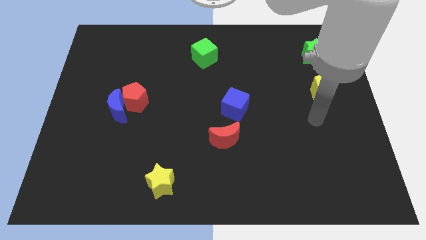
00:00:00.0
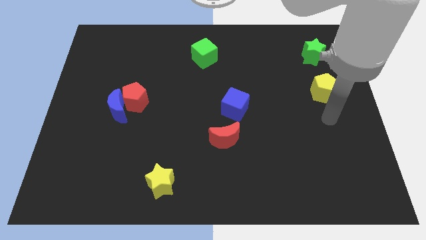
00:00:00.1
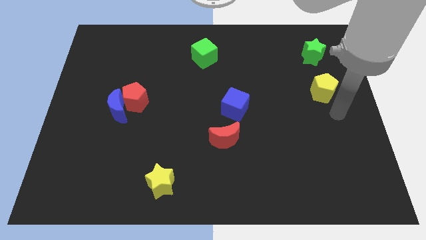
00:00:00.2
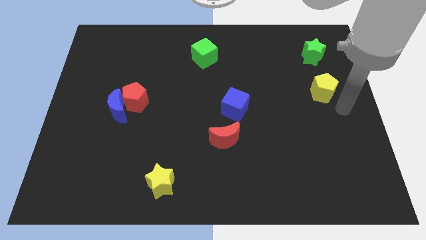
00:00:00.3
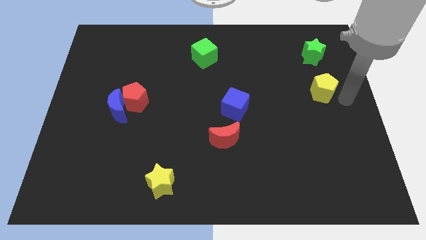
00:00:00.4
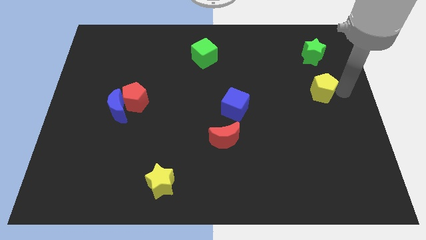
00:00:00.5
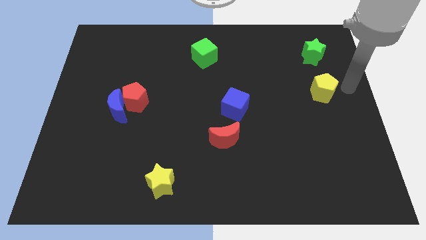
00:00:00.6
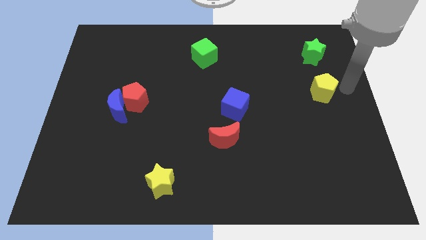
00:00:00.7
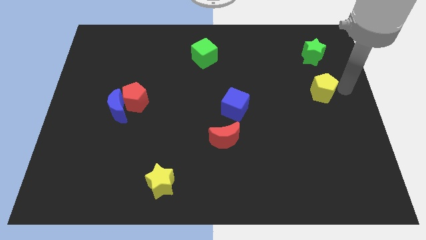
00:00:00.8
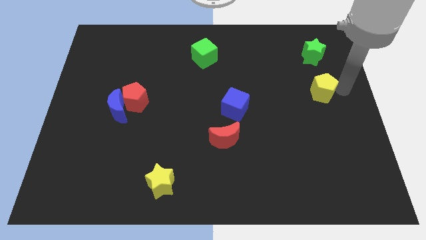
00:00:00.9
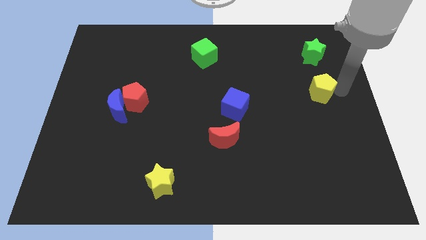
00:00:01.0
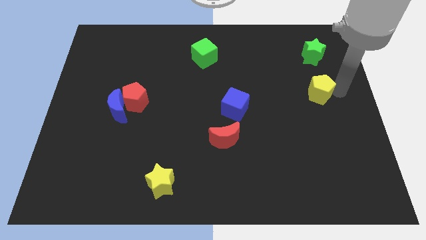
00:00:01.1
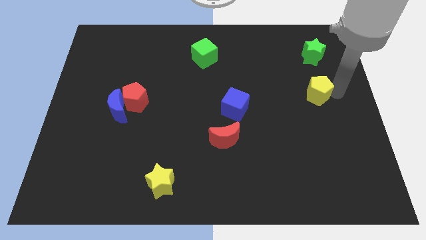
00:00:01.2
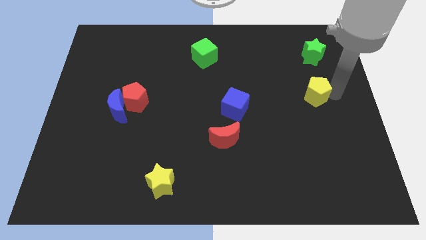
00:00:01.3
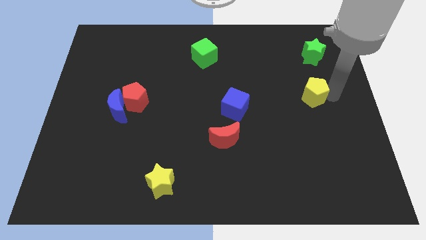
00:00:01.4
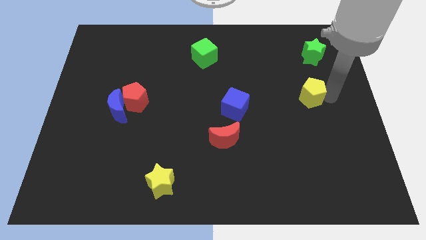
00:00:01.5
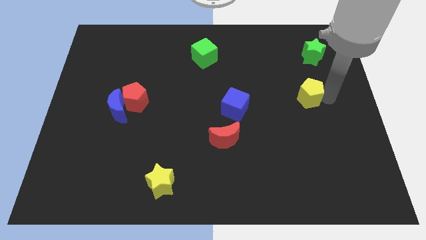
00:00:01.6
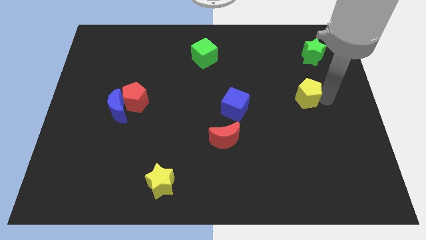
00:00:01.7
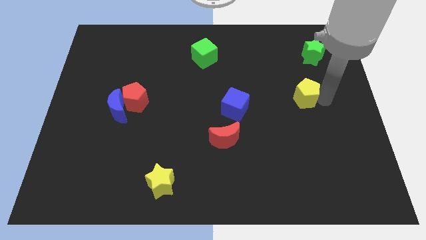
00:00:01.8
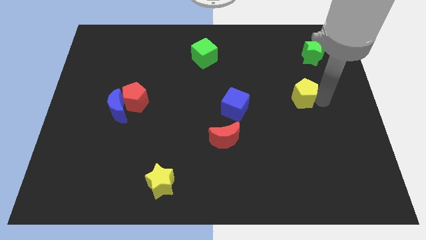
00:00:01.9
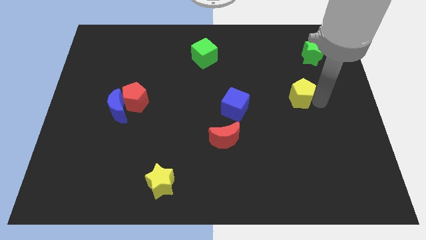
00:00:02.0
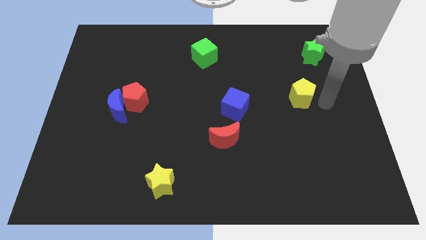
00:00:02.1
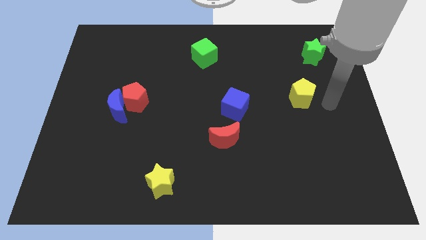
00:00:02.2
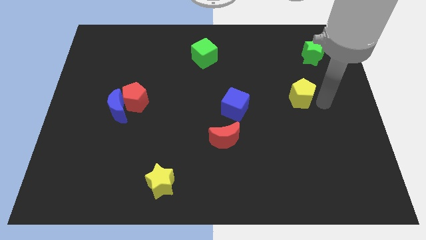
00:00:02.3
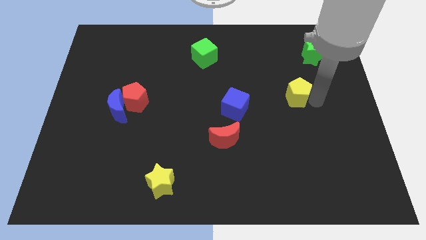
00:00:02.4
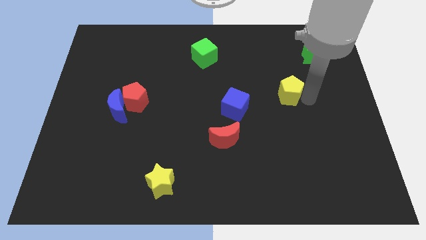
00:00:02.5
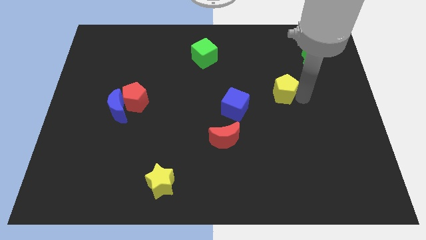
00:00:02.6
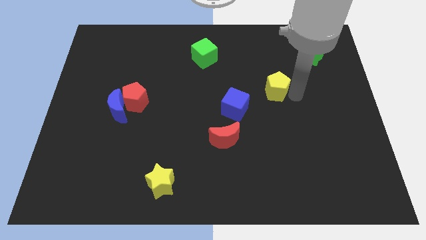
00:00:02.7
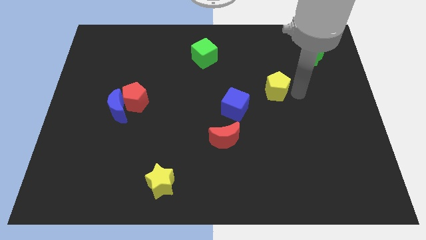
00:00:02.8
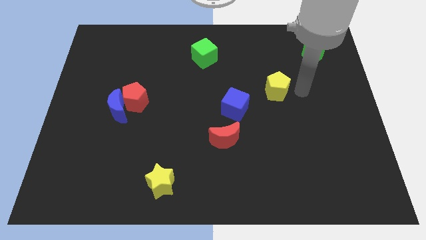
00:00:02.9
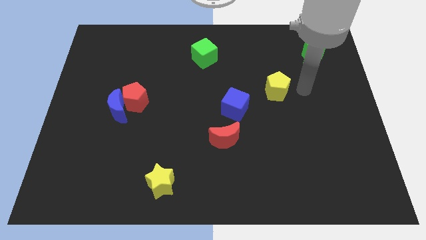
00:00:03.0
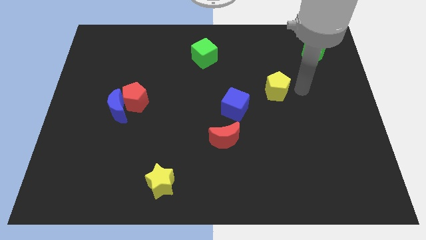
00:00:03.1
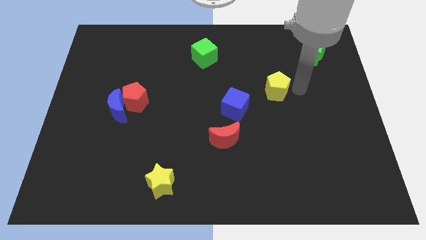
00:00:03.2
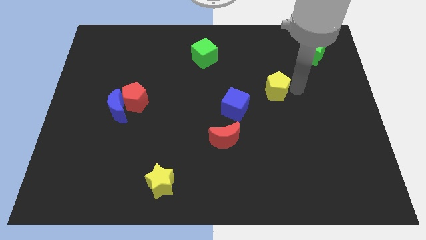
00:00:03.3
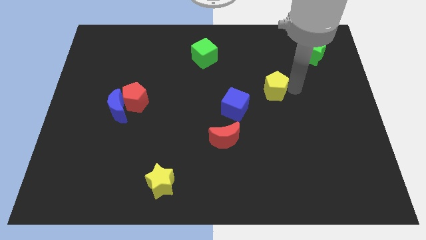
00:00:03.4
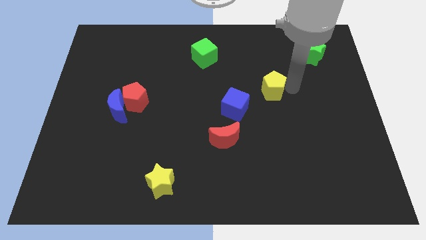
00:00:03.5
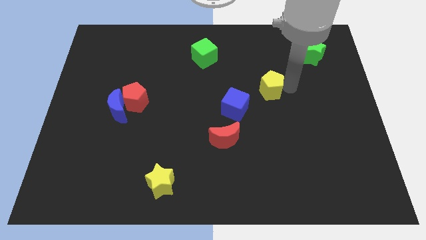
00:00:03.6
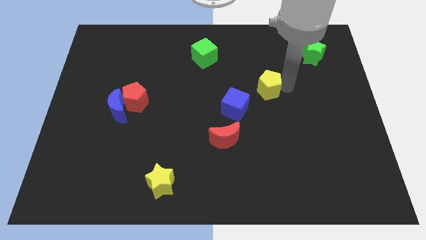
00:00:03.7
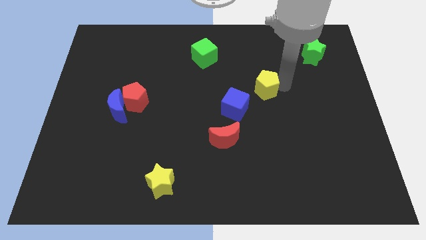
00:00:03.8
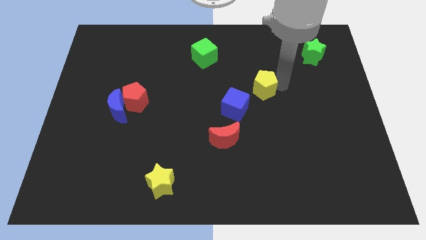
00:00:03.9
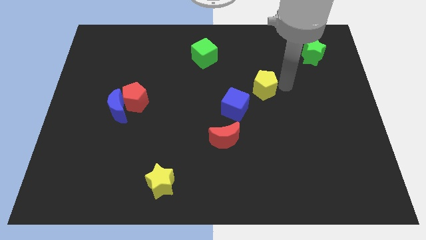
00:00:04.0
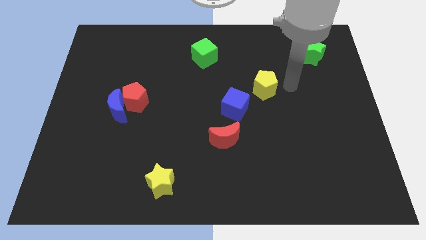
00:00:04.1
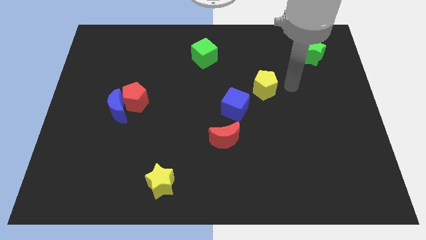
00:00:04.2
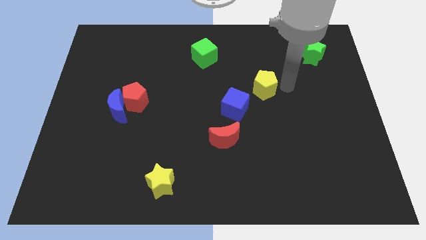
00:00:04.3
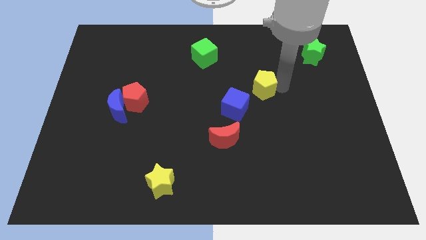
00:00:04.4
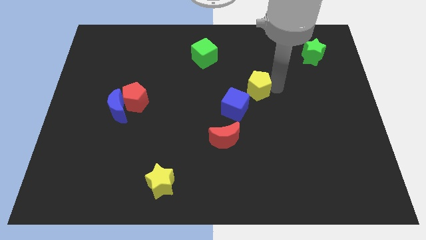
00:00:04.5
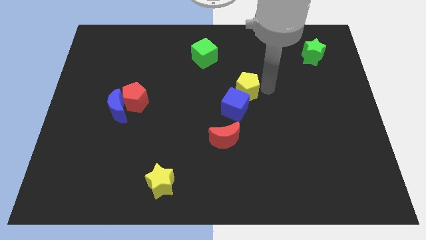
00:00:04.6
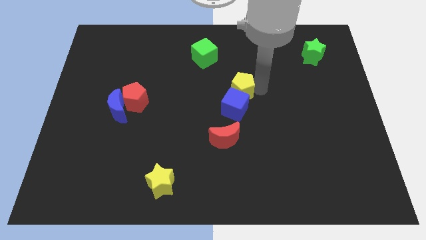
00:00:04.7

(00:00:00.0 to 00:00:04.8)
push the yellow pentagon left

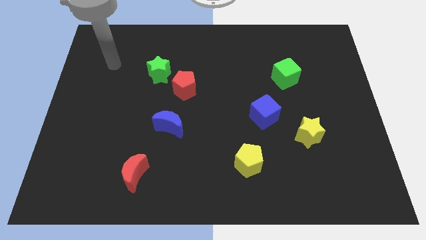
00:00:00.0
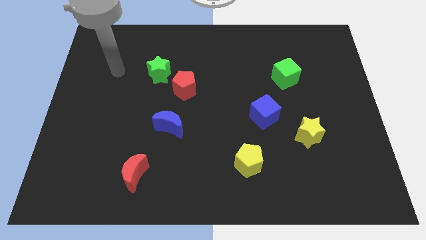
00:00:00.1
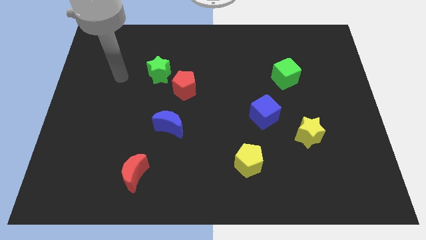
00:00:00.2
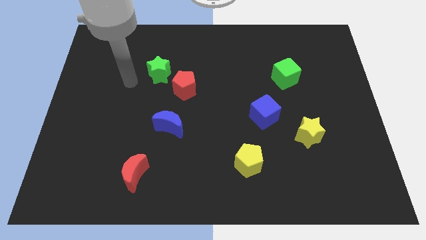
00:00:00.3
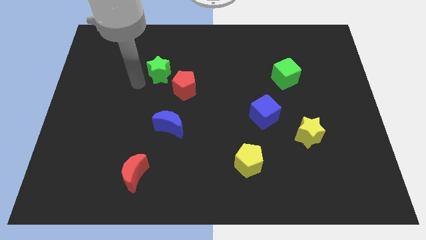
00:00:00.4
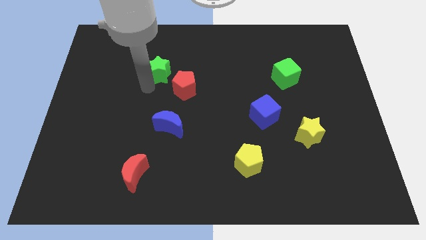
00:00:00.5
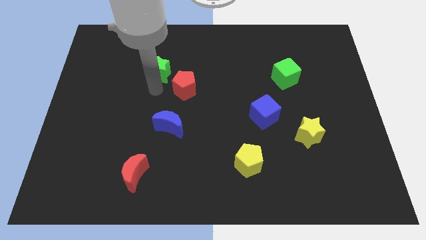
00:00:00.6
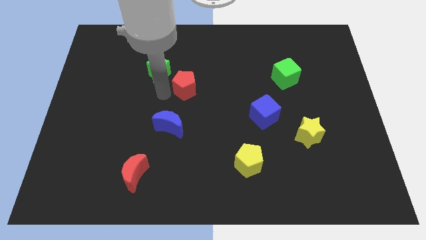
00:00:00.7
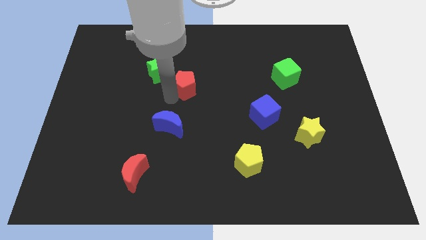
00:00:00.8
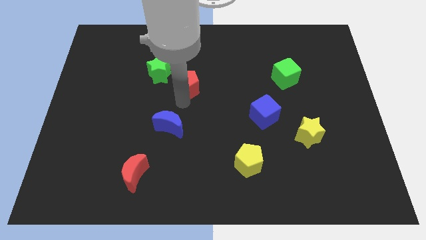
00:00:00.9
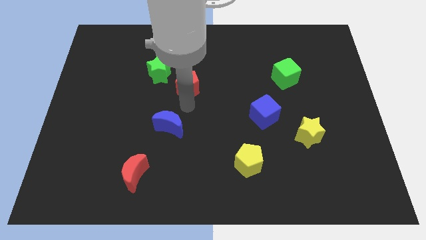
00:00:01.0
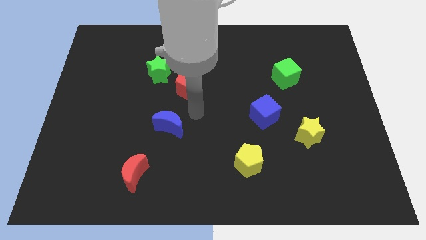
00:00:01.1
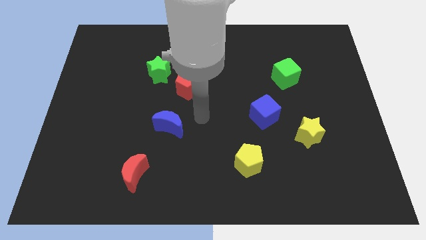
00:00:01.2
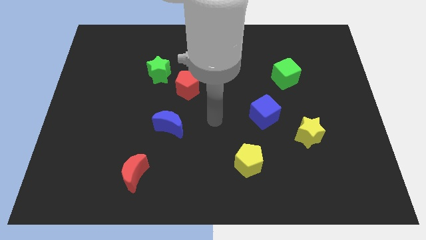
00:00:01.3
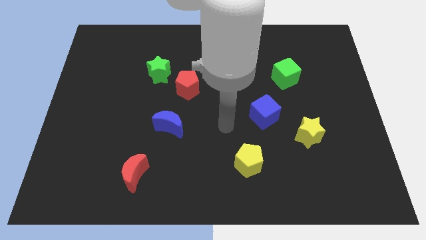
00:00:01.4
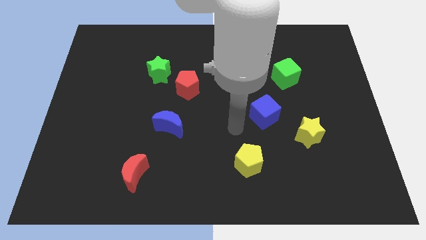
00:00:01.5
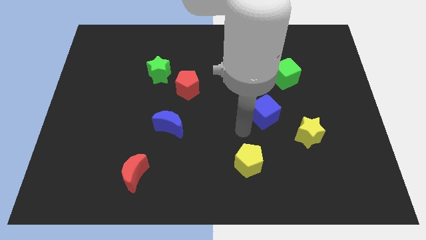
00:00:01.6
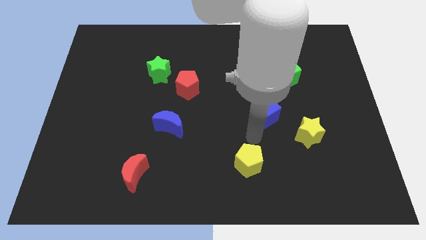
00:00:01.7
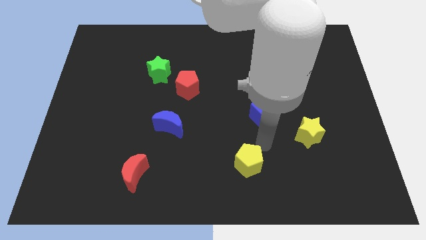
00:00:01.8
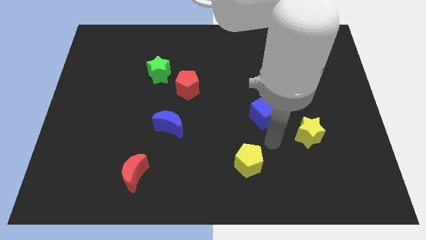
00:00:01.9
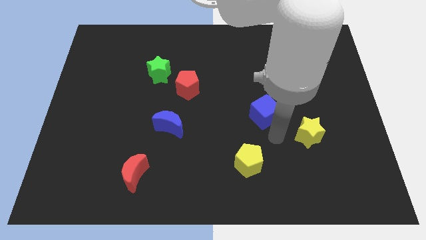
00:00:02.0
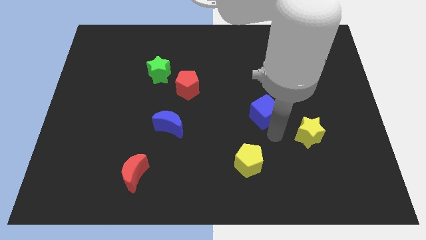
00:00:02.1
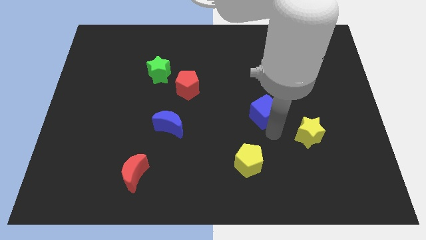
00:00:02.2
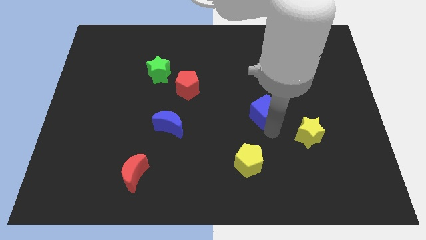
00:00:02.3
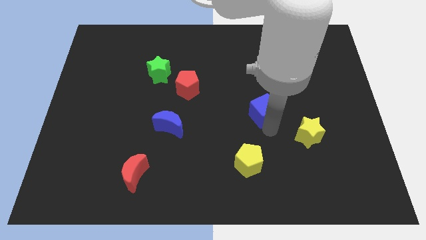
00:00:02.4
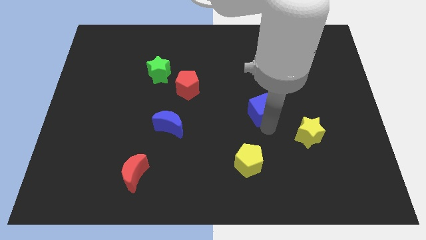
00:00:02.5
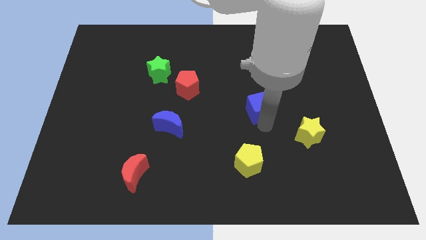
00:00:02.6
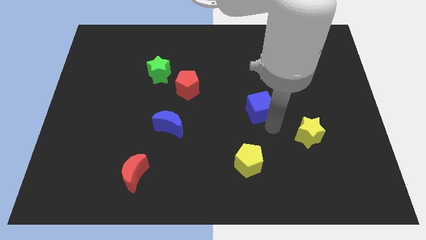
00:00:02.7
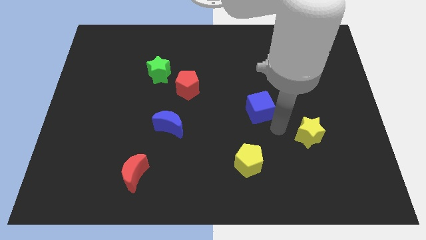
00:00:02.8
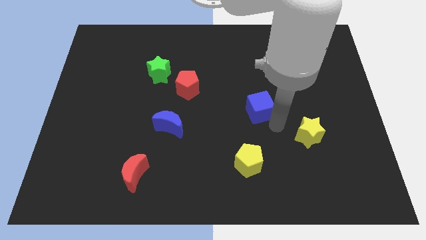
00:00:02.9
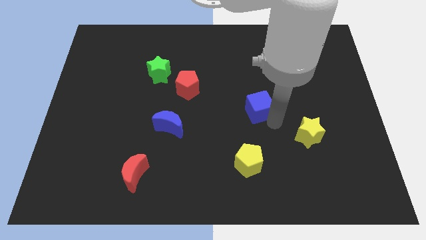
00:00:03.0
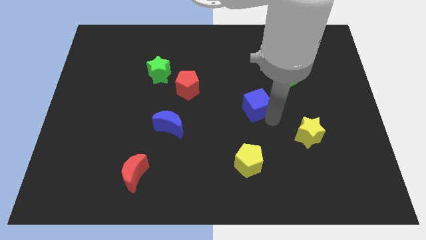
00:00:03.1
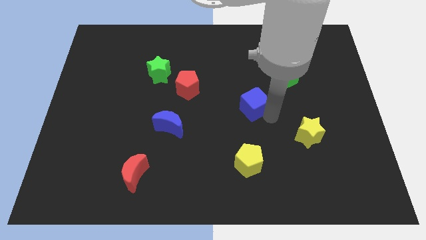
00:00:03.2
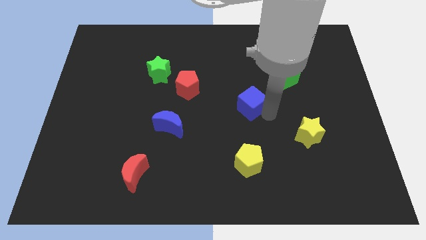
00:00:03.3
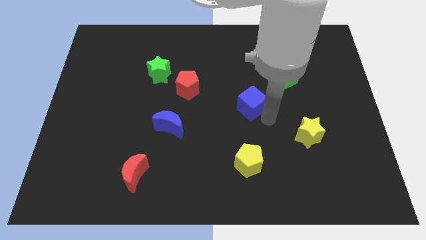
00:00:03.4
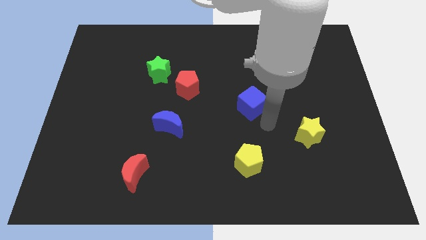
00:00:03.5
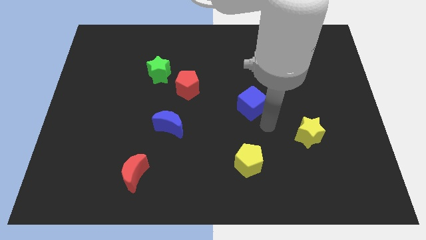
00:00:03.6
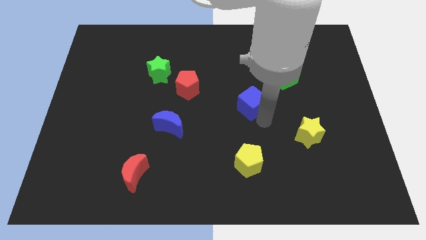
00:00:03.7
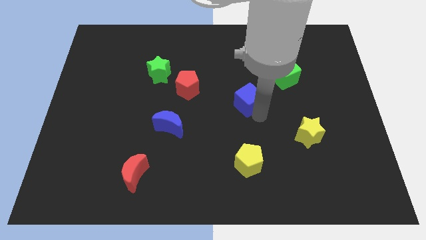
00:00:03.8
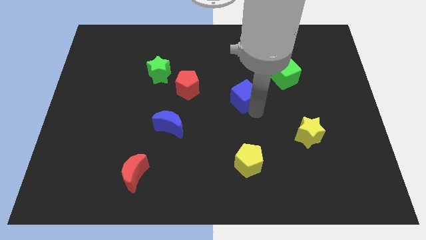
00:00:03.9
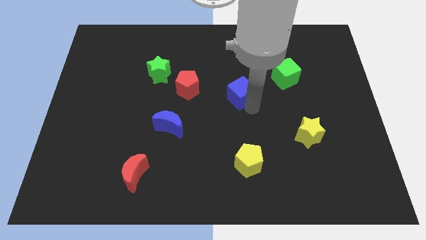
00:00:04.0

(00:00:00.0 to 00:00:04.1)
push the blue cube a little bit upwards and left diagonally
